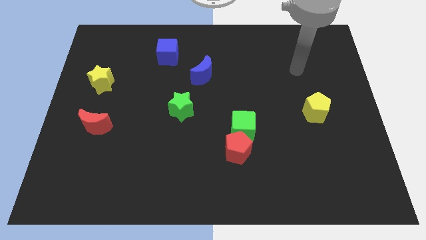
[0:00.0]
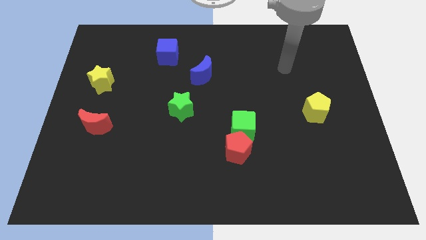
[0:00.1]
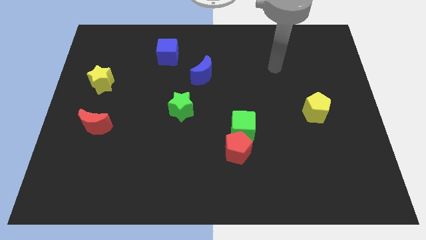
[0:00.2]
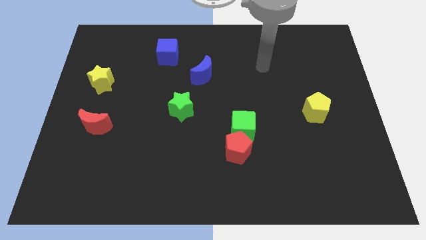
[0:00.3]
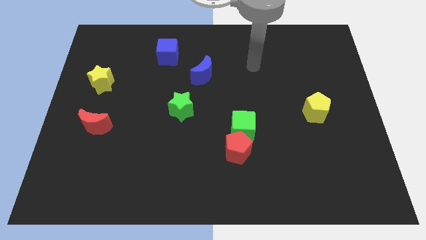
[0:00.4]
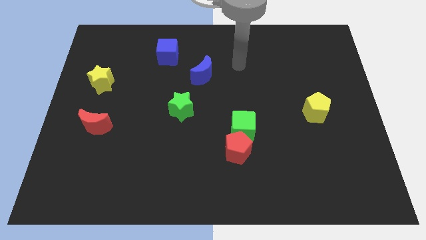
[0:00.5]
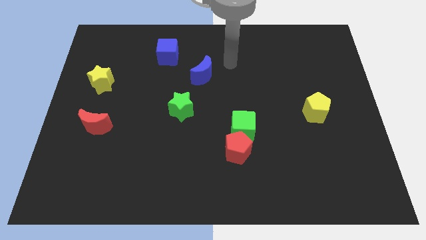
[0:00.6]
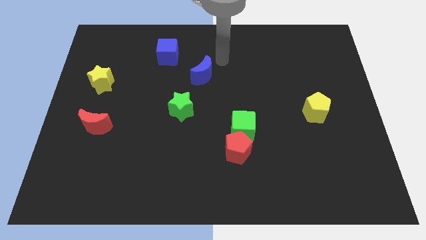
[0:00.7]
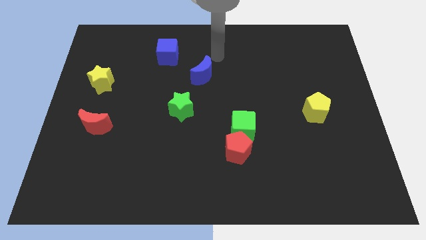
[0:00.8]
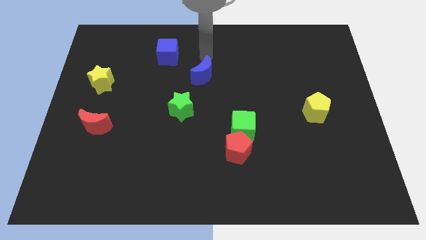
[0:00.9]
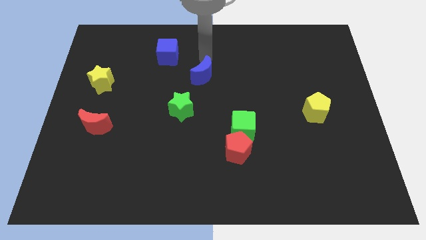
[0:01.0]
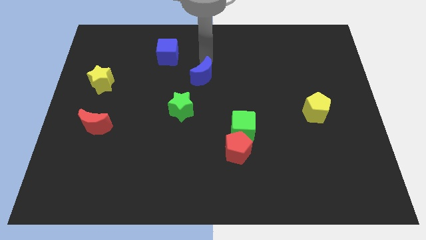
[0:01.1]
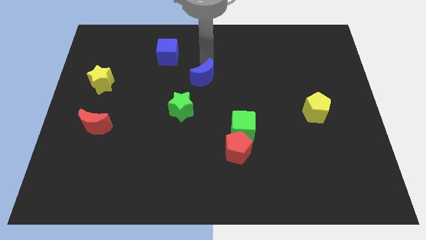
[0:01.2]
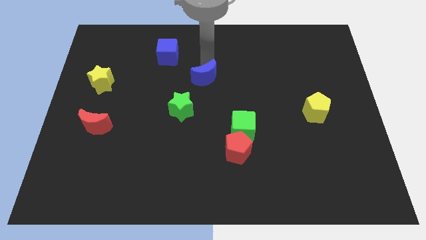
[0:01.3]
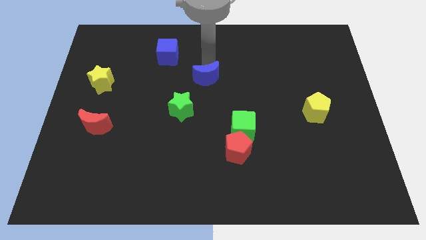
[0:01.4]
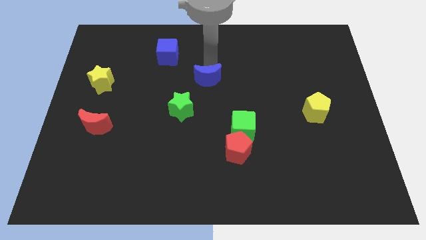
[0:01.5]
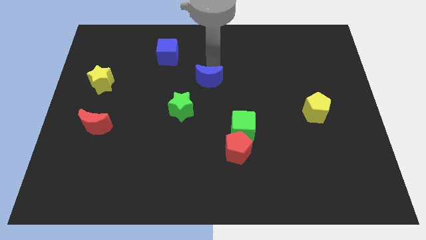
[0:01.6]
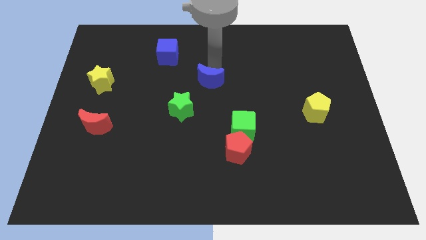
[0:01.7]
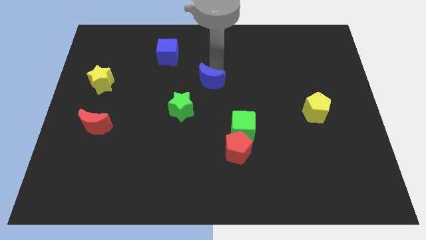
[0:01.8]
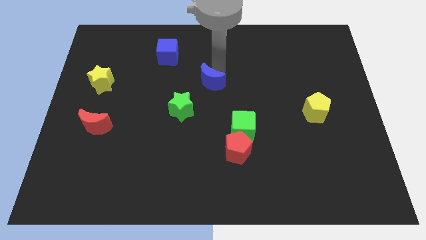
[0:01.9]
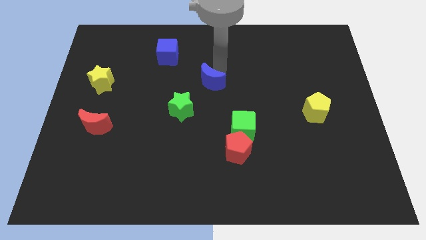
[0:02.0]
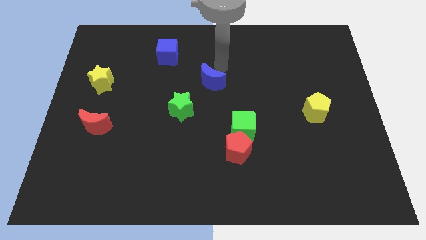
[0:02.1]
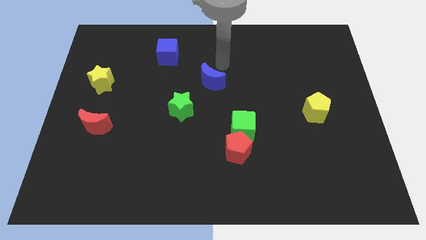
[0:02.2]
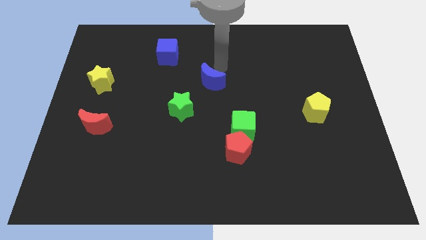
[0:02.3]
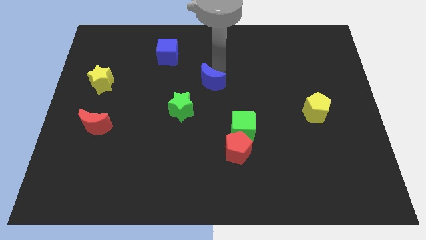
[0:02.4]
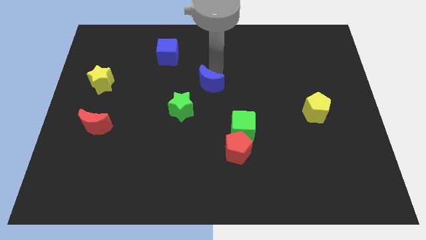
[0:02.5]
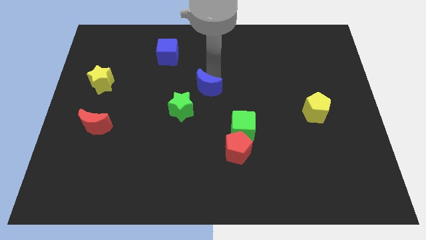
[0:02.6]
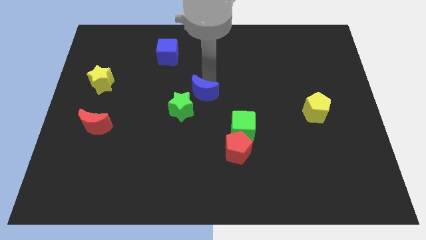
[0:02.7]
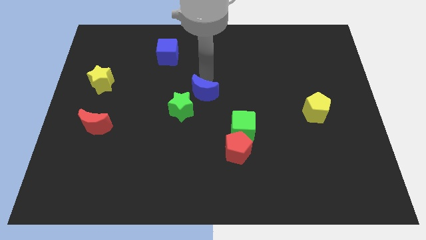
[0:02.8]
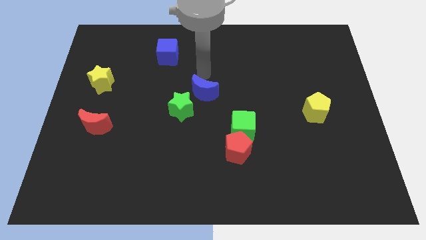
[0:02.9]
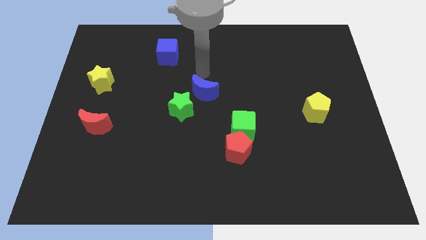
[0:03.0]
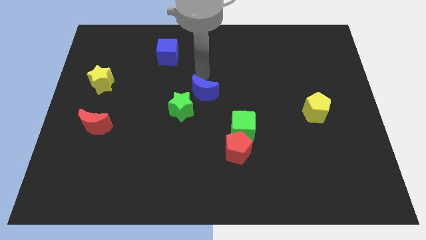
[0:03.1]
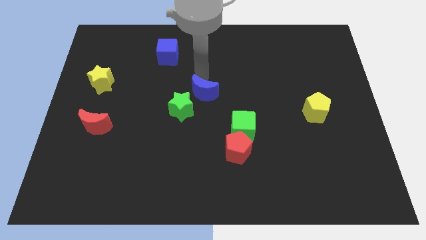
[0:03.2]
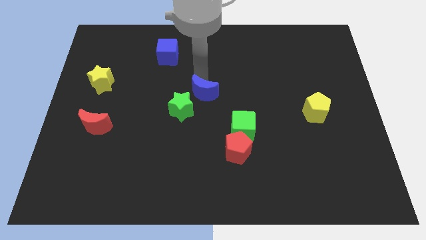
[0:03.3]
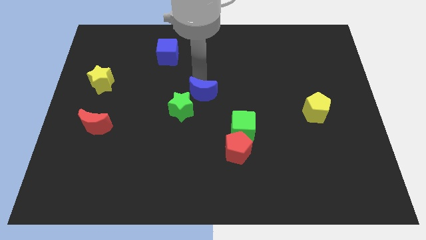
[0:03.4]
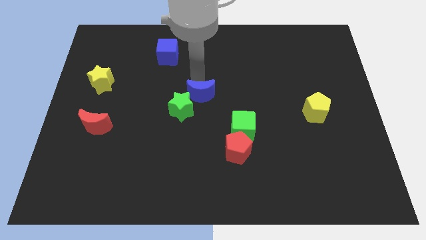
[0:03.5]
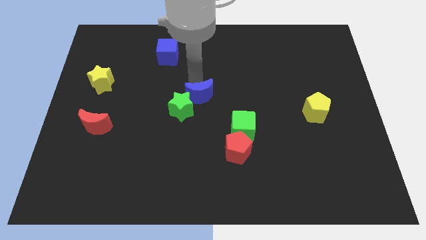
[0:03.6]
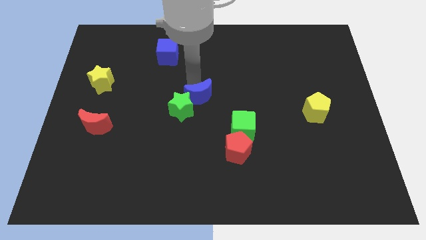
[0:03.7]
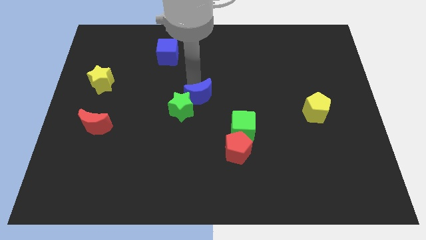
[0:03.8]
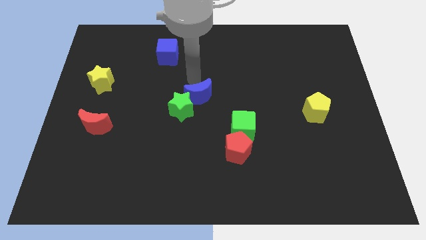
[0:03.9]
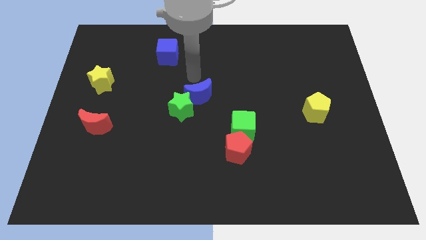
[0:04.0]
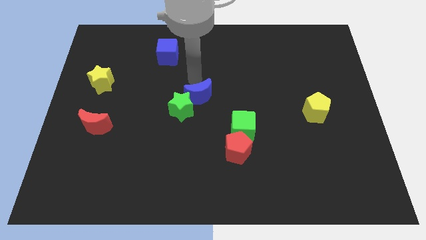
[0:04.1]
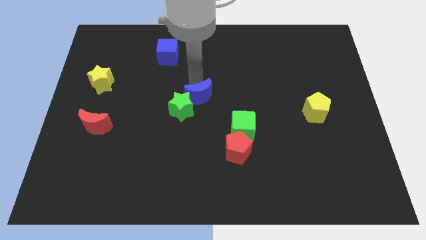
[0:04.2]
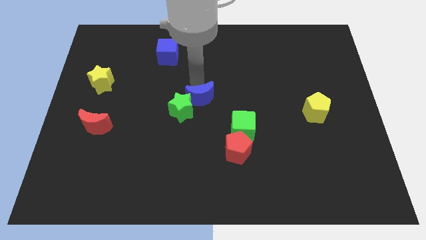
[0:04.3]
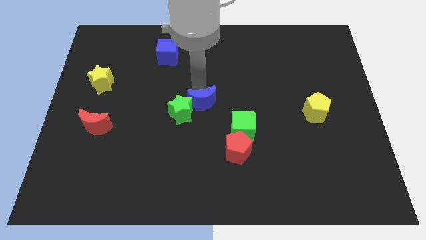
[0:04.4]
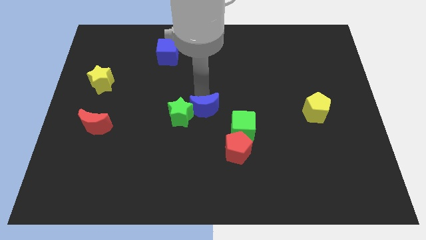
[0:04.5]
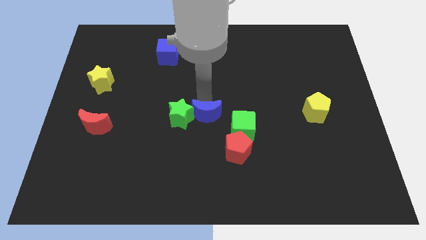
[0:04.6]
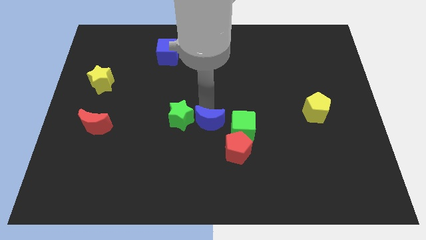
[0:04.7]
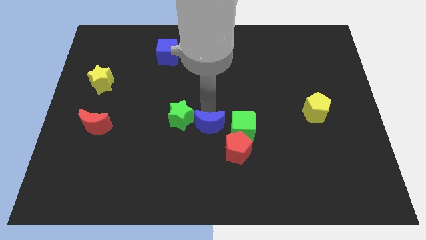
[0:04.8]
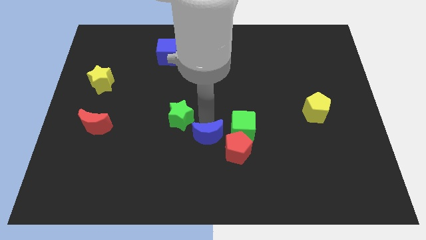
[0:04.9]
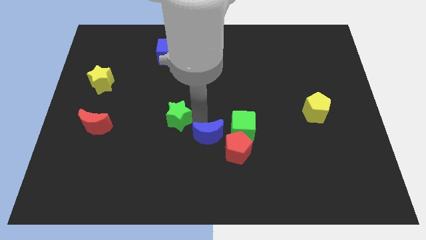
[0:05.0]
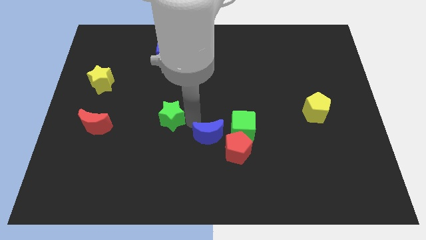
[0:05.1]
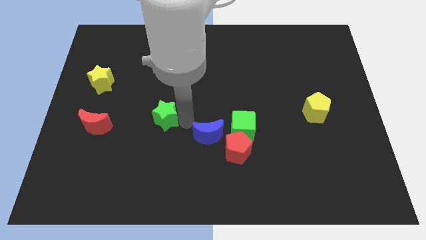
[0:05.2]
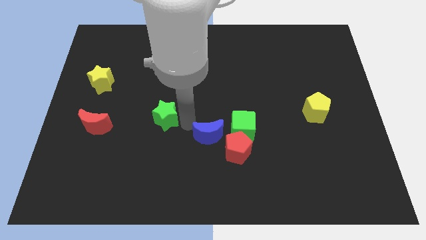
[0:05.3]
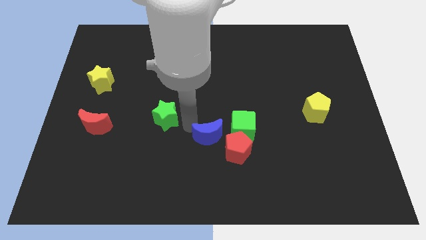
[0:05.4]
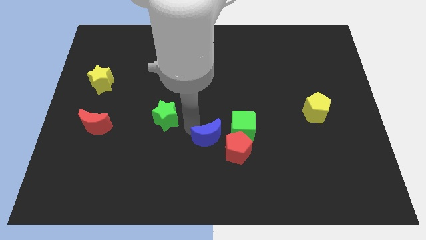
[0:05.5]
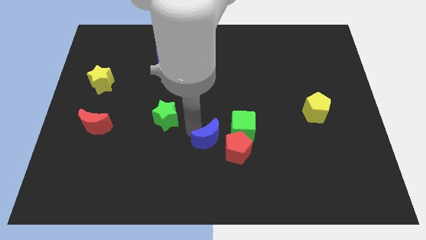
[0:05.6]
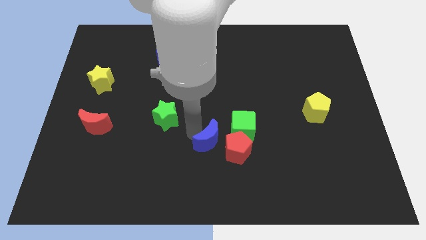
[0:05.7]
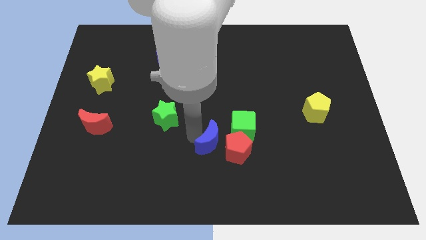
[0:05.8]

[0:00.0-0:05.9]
move the blue moon towards the red pentagon

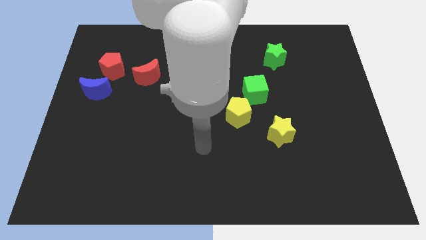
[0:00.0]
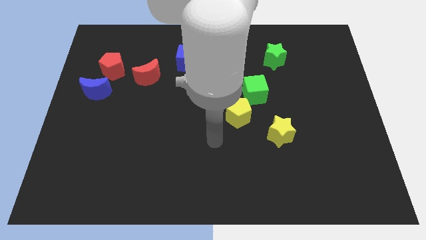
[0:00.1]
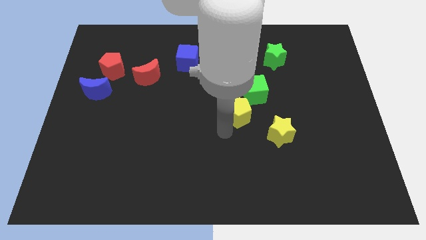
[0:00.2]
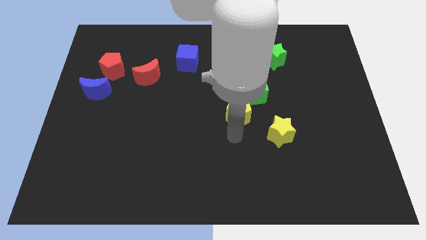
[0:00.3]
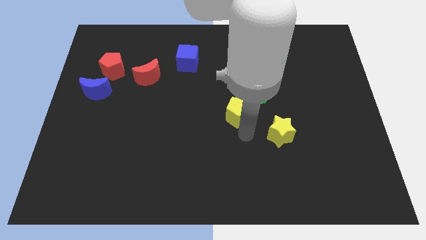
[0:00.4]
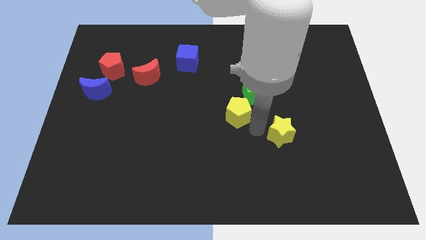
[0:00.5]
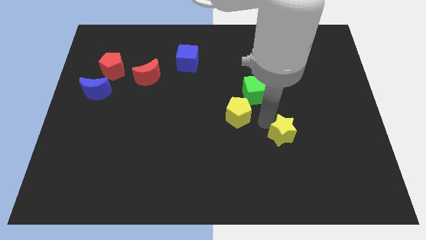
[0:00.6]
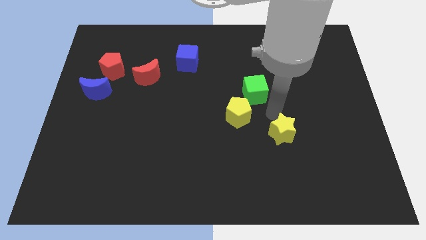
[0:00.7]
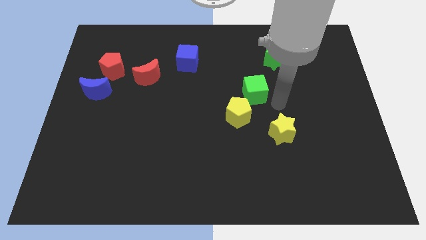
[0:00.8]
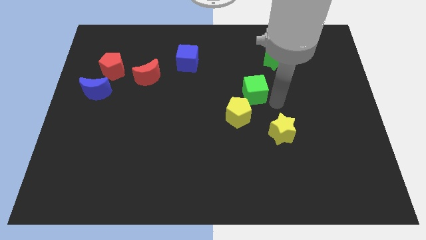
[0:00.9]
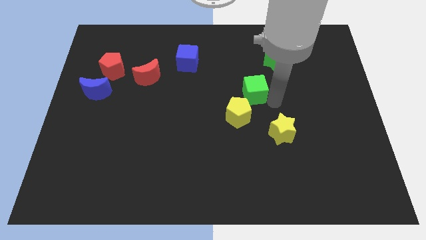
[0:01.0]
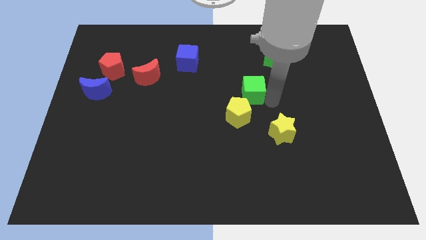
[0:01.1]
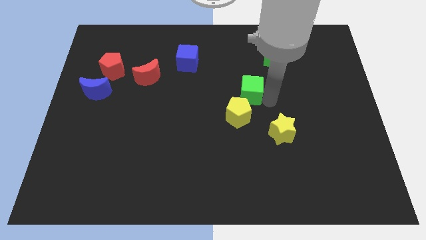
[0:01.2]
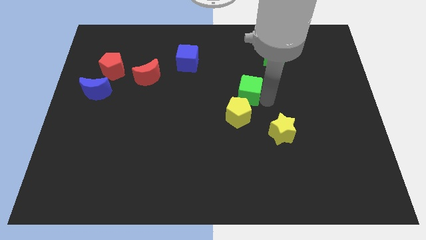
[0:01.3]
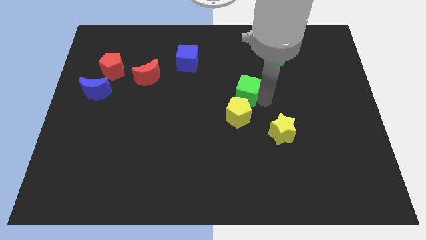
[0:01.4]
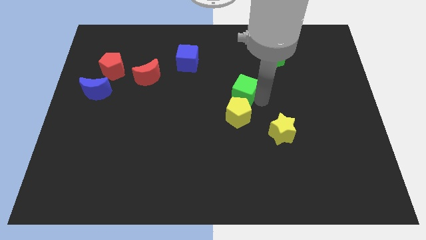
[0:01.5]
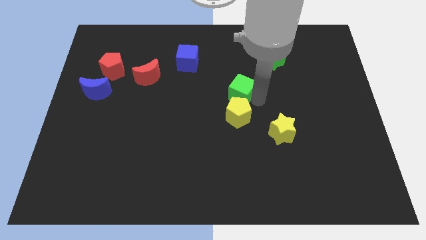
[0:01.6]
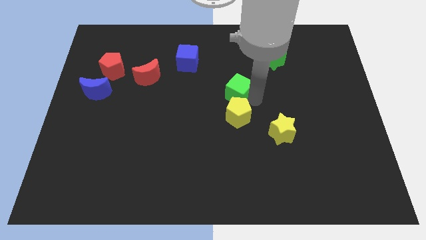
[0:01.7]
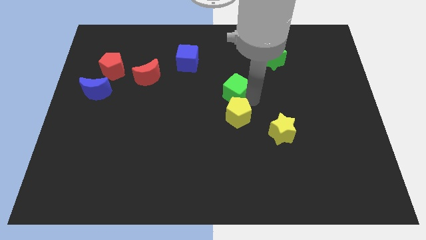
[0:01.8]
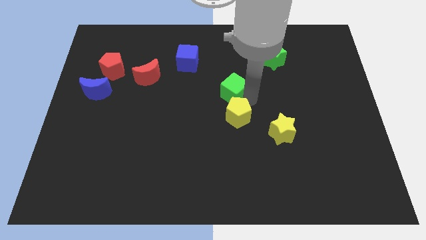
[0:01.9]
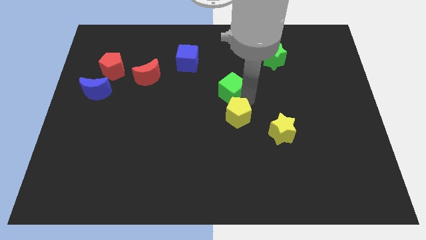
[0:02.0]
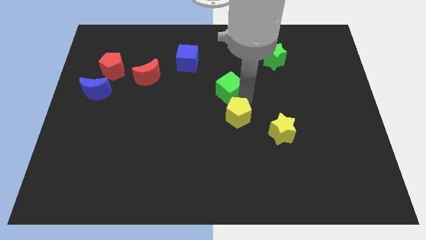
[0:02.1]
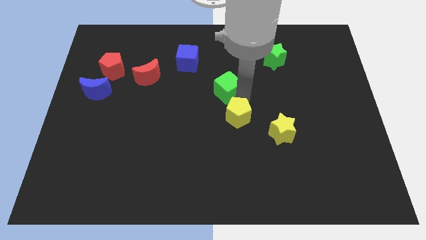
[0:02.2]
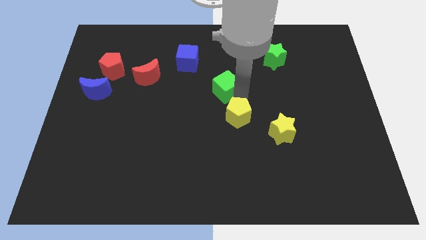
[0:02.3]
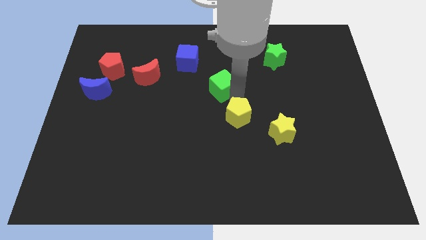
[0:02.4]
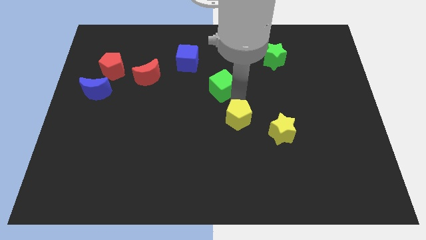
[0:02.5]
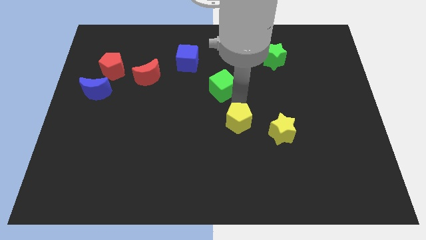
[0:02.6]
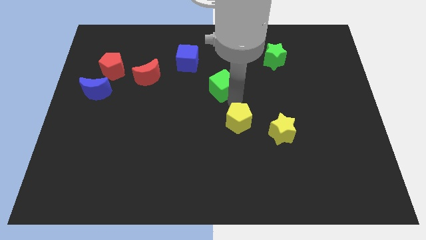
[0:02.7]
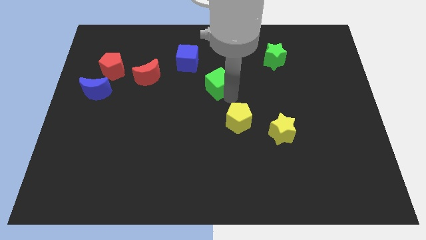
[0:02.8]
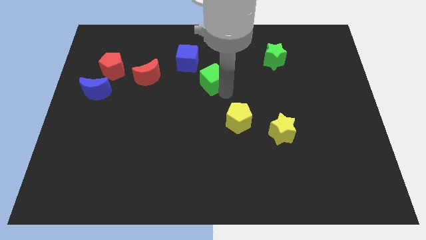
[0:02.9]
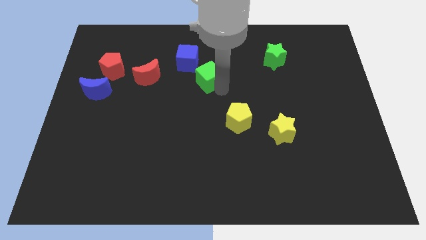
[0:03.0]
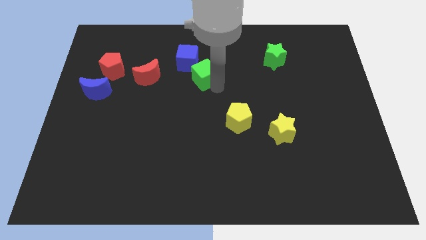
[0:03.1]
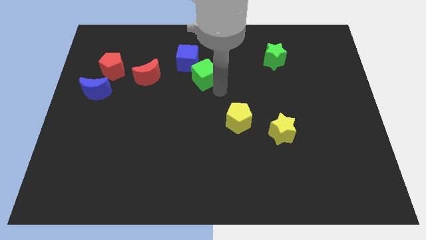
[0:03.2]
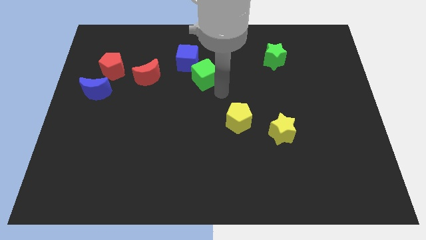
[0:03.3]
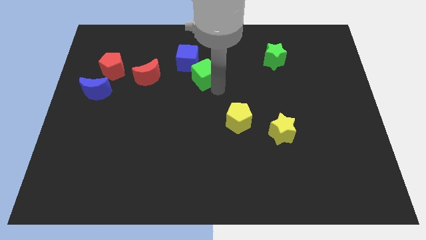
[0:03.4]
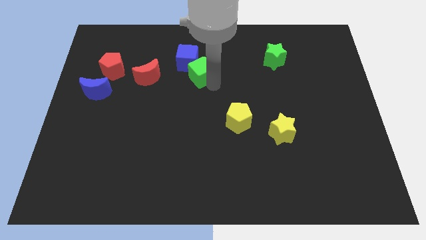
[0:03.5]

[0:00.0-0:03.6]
put the green cube close to the blue cube
